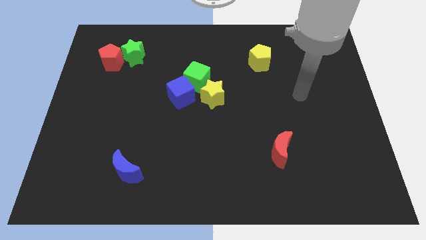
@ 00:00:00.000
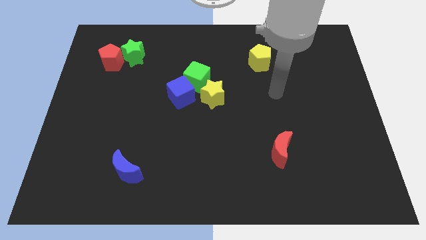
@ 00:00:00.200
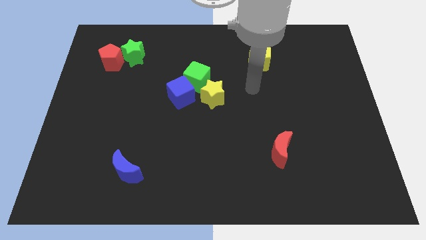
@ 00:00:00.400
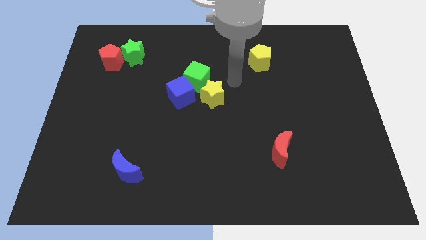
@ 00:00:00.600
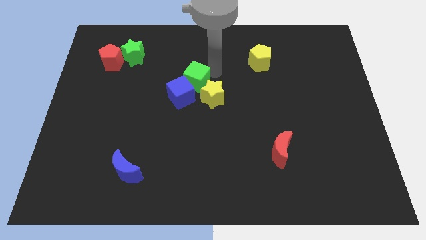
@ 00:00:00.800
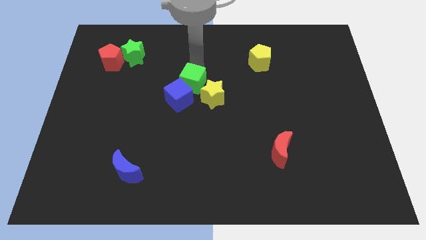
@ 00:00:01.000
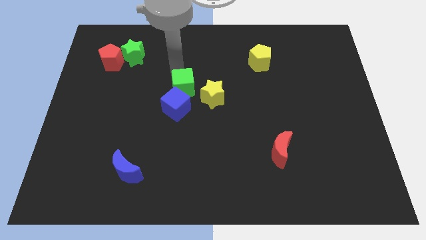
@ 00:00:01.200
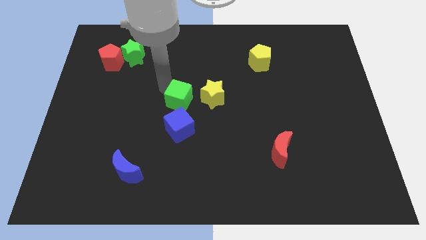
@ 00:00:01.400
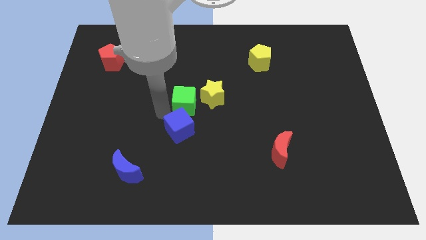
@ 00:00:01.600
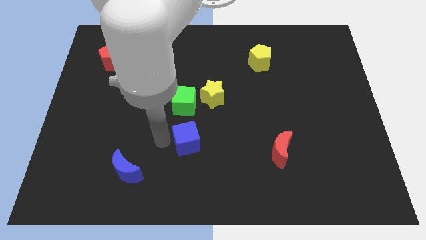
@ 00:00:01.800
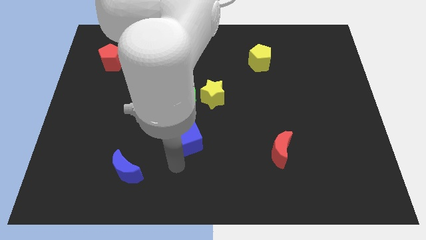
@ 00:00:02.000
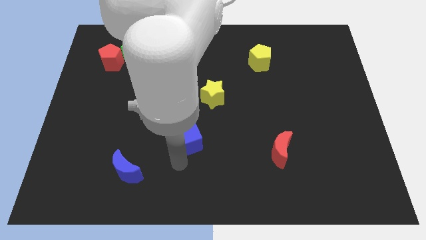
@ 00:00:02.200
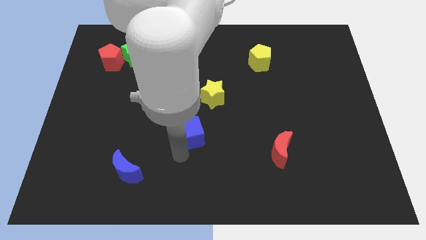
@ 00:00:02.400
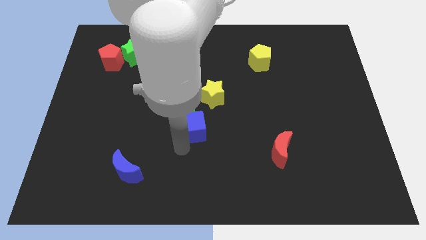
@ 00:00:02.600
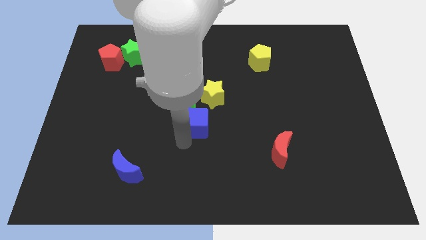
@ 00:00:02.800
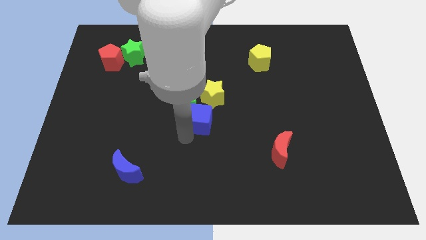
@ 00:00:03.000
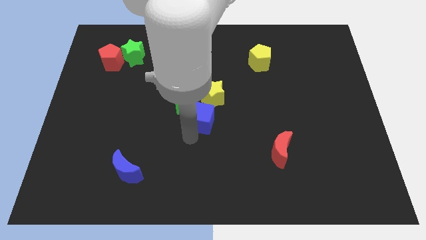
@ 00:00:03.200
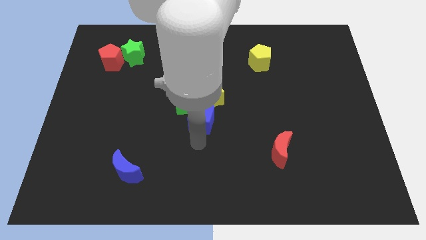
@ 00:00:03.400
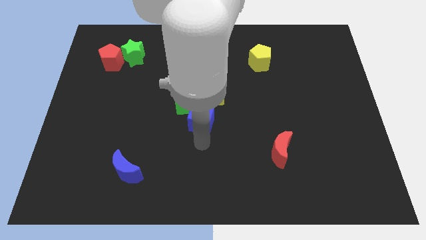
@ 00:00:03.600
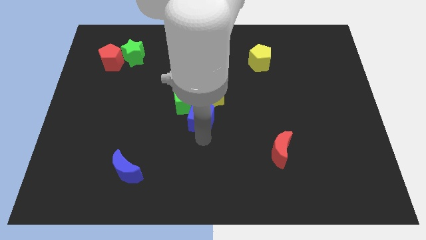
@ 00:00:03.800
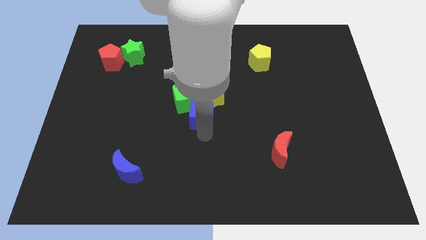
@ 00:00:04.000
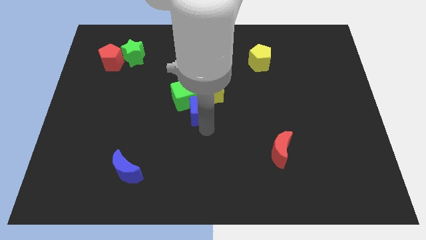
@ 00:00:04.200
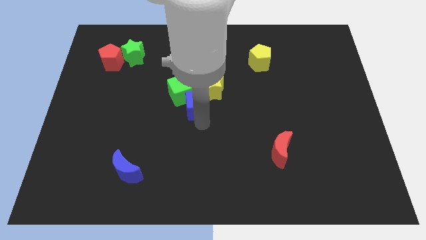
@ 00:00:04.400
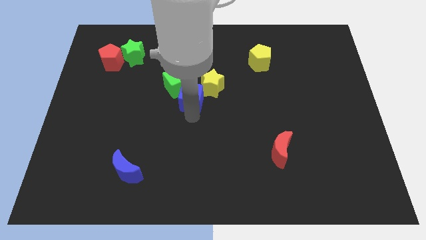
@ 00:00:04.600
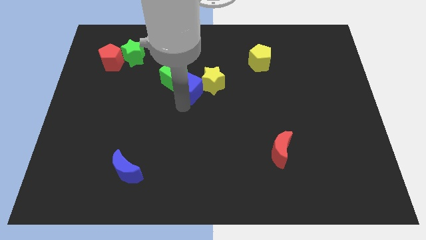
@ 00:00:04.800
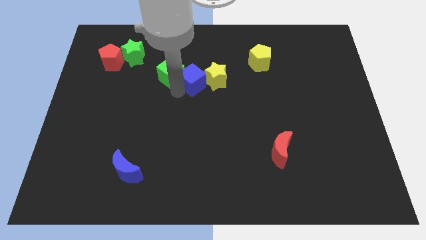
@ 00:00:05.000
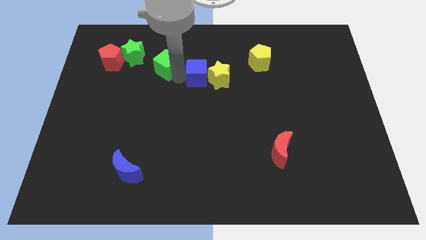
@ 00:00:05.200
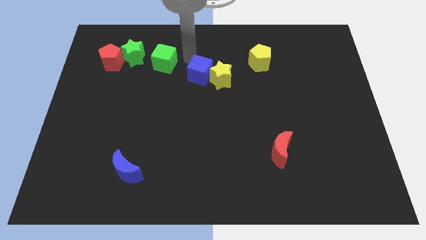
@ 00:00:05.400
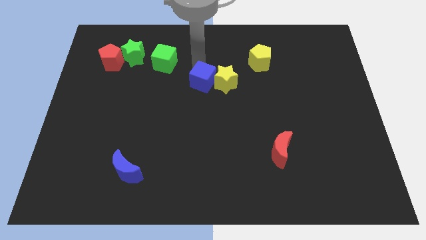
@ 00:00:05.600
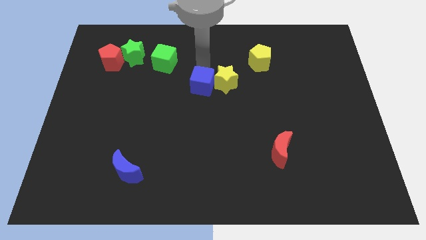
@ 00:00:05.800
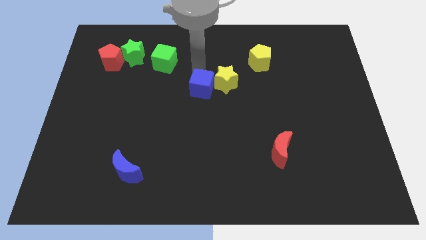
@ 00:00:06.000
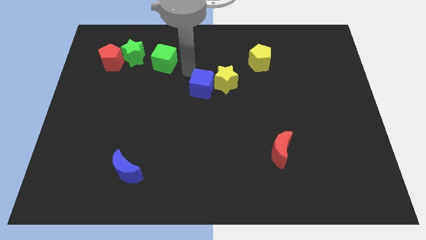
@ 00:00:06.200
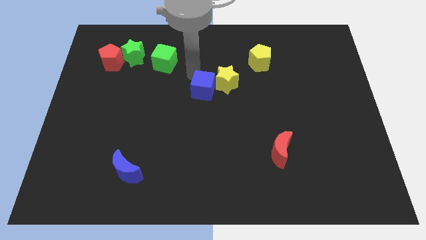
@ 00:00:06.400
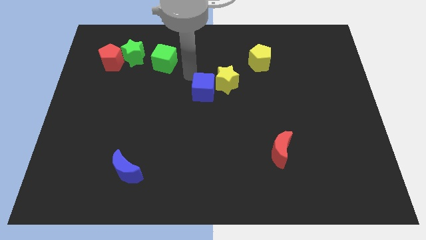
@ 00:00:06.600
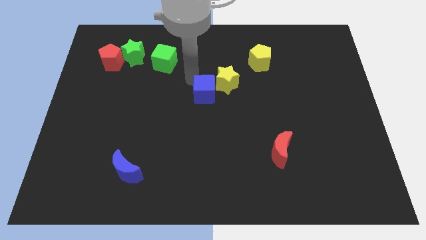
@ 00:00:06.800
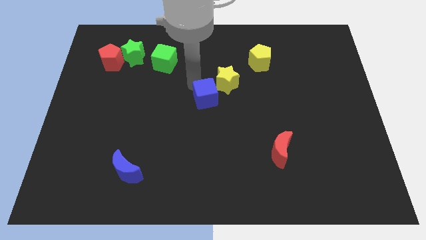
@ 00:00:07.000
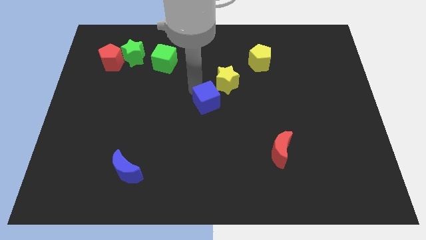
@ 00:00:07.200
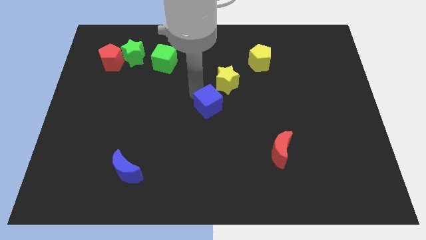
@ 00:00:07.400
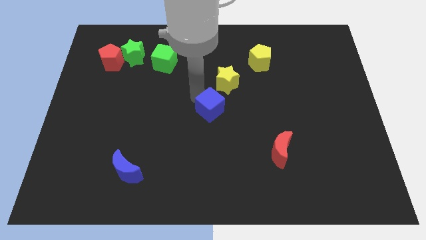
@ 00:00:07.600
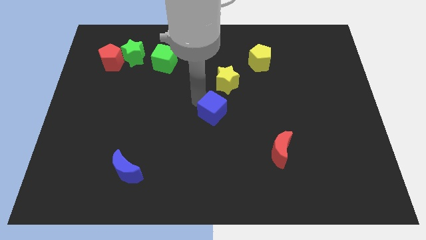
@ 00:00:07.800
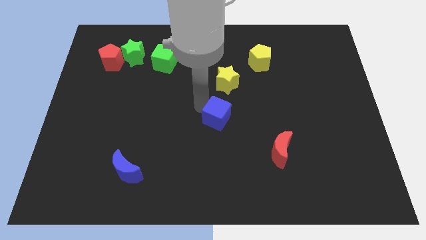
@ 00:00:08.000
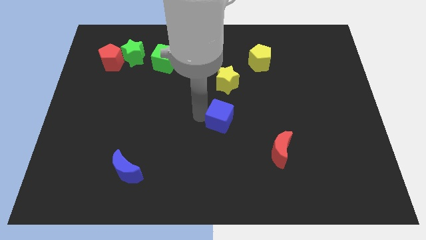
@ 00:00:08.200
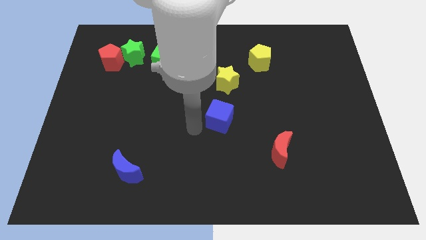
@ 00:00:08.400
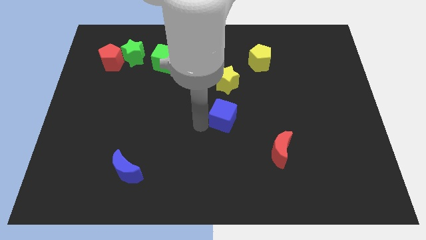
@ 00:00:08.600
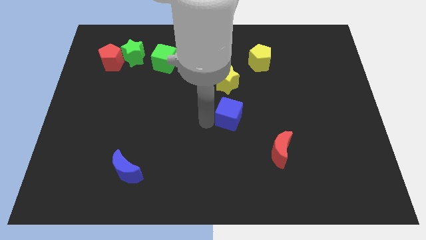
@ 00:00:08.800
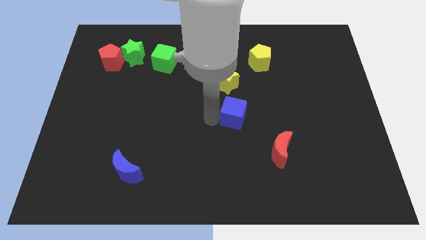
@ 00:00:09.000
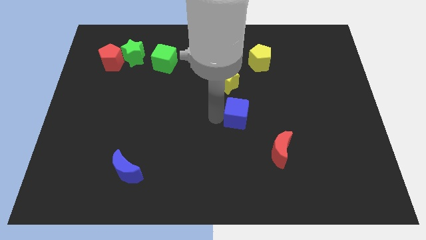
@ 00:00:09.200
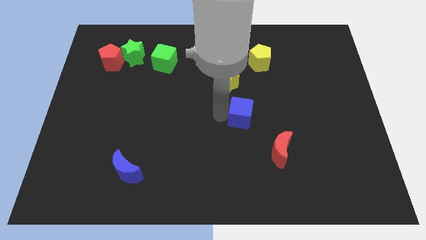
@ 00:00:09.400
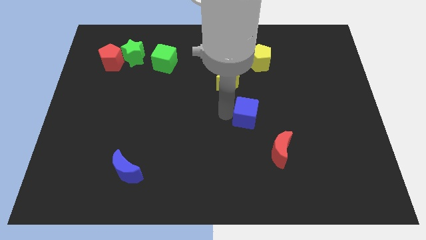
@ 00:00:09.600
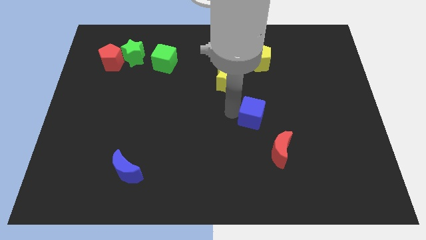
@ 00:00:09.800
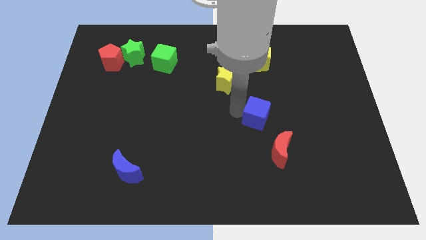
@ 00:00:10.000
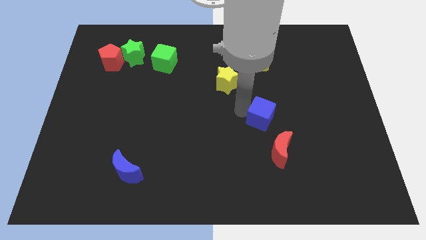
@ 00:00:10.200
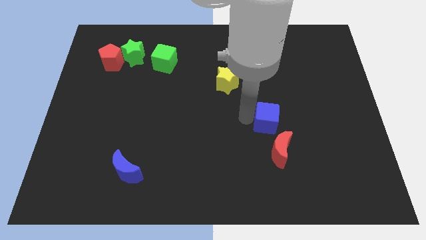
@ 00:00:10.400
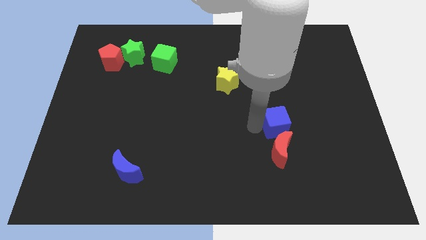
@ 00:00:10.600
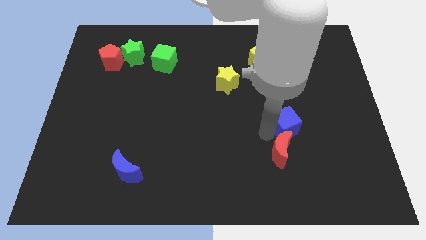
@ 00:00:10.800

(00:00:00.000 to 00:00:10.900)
slide the blue cube to the right

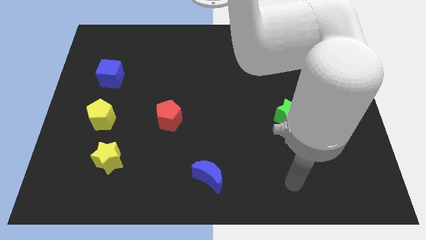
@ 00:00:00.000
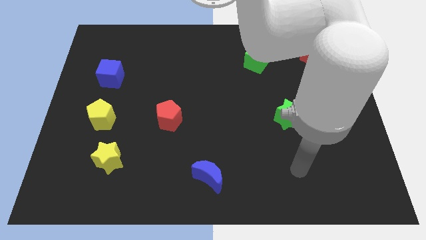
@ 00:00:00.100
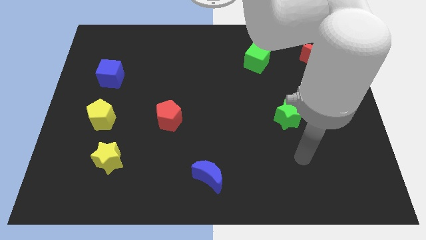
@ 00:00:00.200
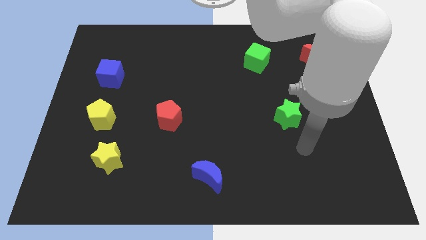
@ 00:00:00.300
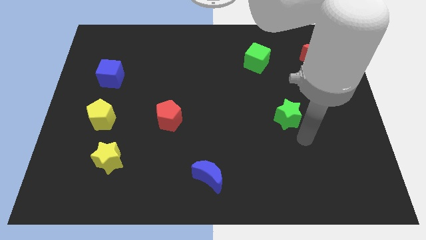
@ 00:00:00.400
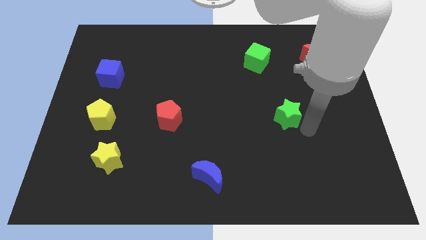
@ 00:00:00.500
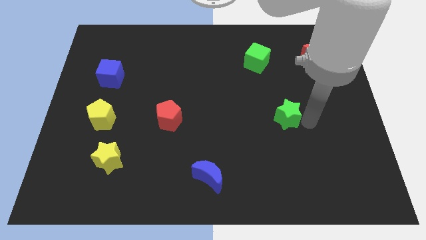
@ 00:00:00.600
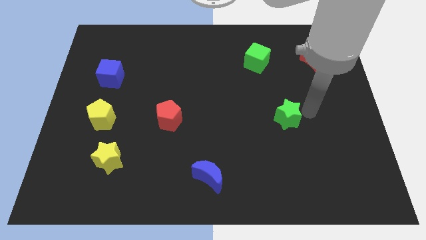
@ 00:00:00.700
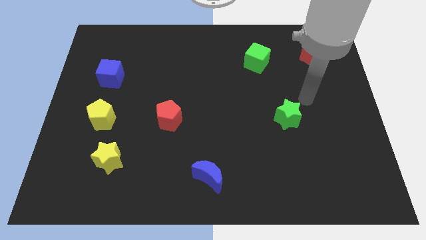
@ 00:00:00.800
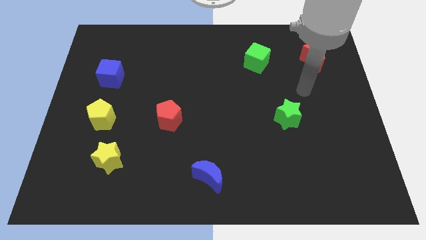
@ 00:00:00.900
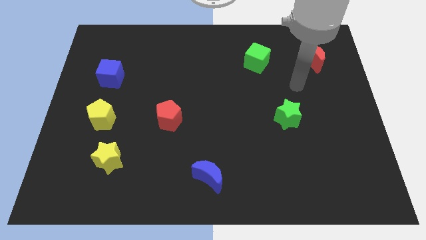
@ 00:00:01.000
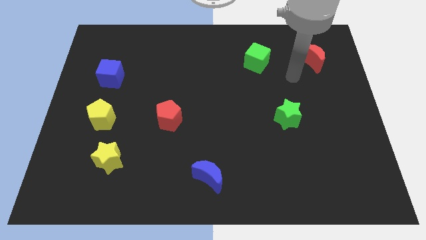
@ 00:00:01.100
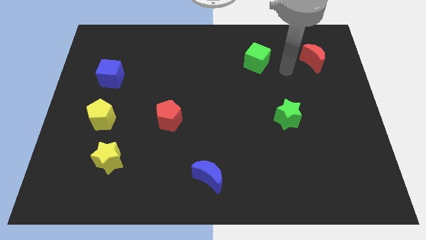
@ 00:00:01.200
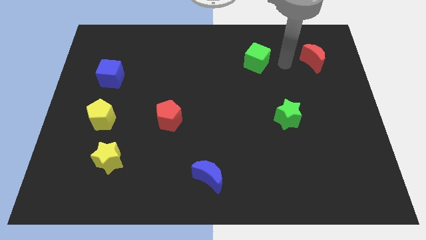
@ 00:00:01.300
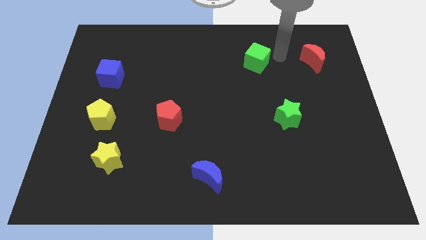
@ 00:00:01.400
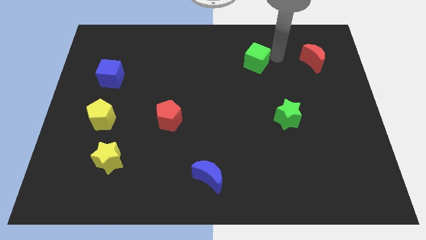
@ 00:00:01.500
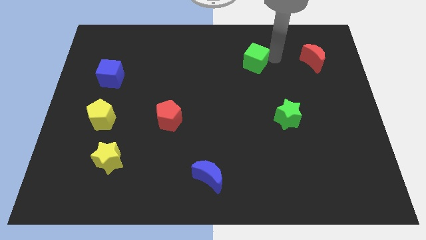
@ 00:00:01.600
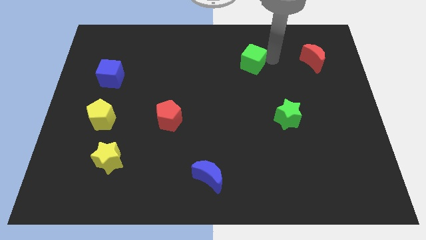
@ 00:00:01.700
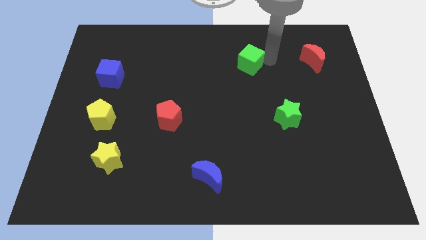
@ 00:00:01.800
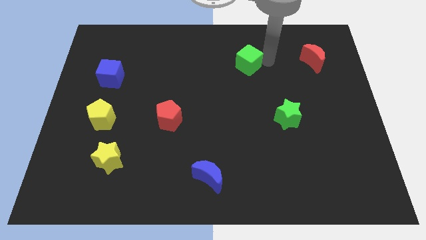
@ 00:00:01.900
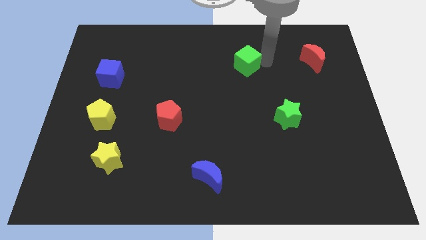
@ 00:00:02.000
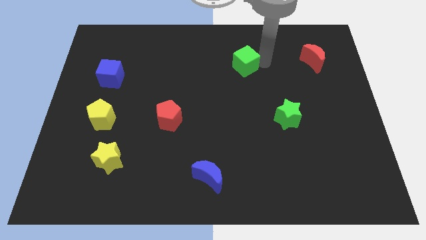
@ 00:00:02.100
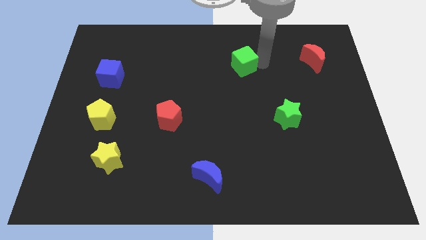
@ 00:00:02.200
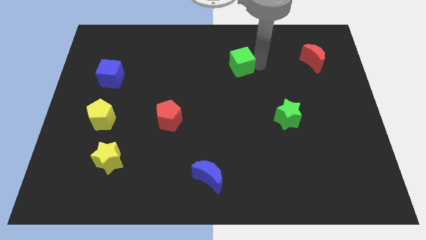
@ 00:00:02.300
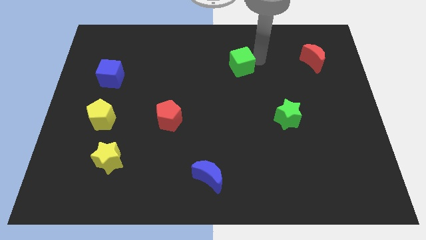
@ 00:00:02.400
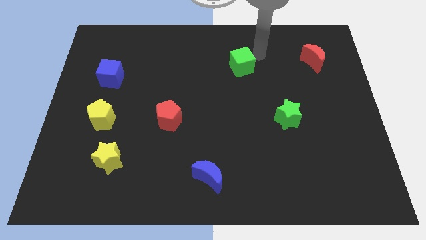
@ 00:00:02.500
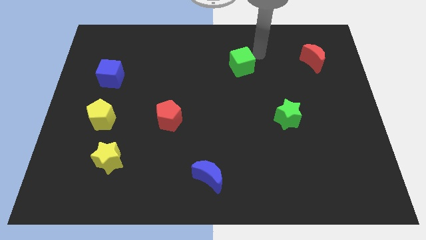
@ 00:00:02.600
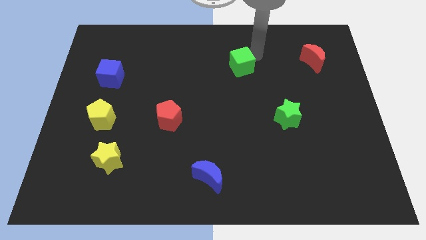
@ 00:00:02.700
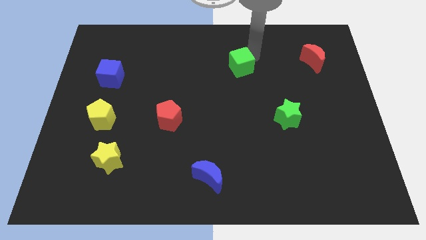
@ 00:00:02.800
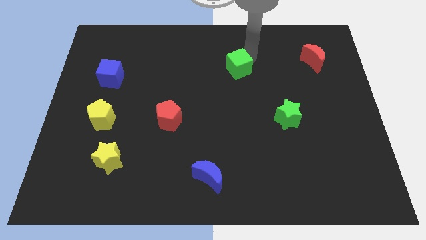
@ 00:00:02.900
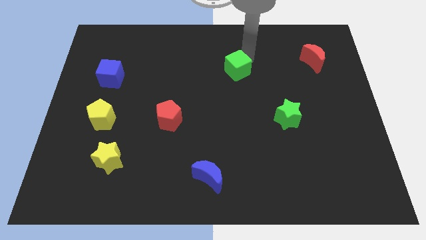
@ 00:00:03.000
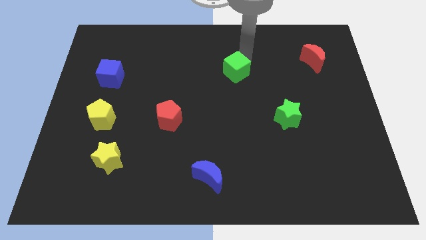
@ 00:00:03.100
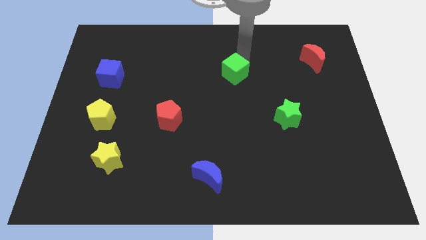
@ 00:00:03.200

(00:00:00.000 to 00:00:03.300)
slightly move the green cube downwards and to the left
